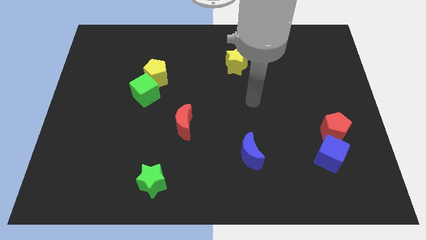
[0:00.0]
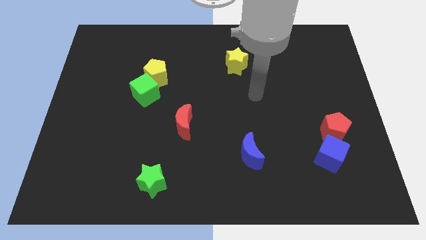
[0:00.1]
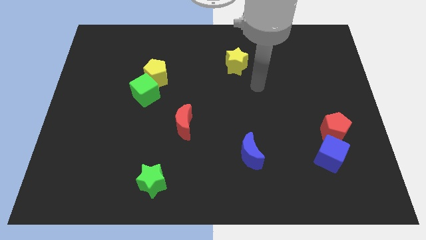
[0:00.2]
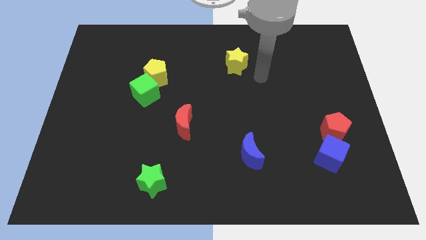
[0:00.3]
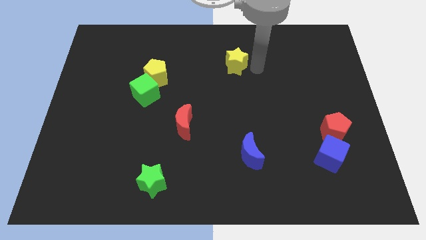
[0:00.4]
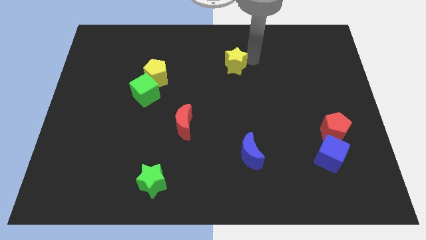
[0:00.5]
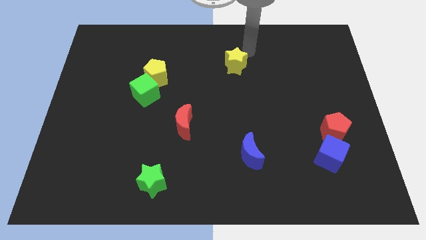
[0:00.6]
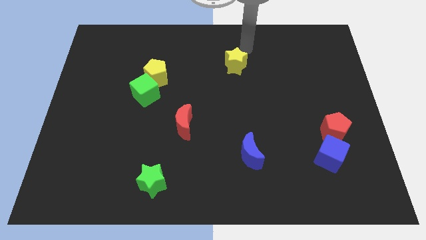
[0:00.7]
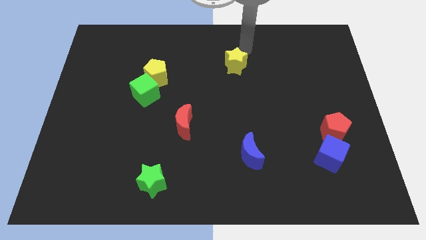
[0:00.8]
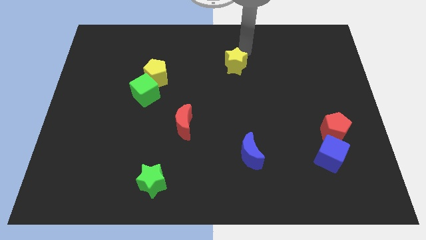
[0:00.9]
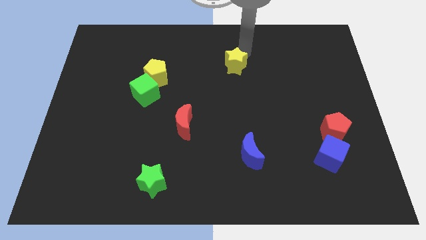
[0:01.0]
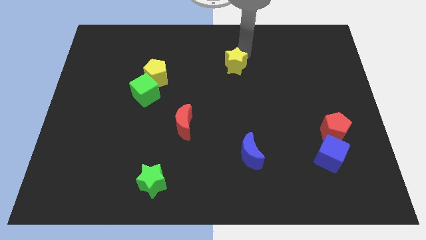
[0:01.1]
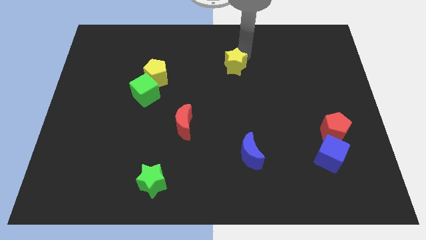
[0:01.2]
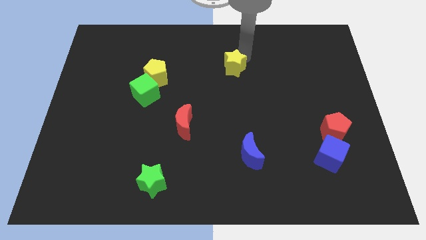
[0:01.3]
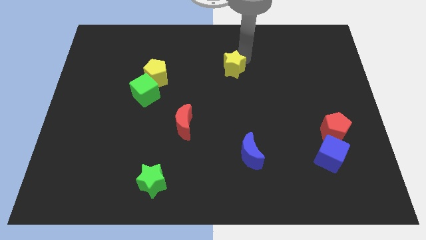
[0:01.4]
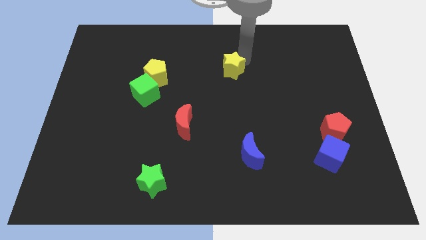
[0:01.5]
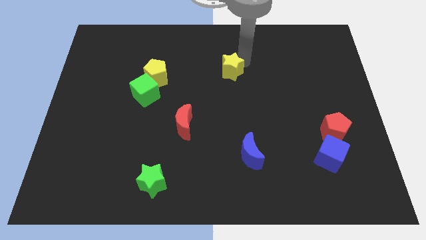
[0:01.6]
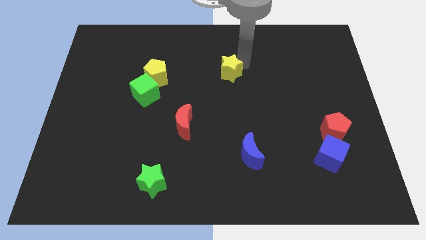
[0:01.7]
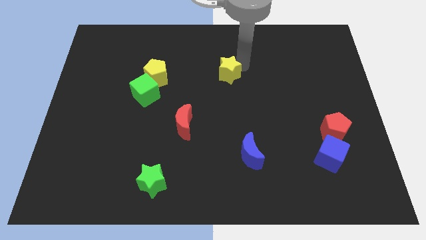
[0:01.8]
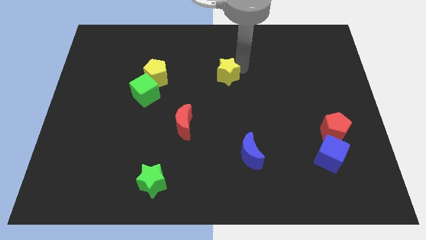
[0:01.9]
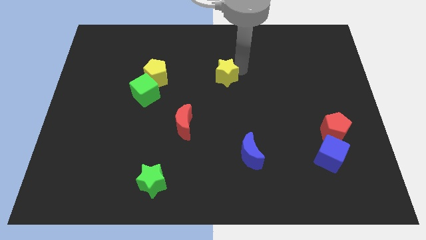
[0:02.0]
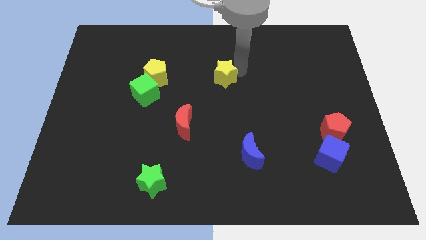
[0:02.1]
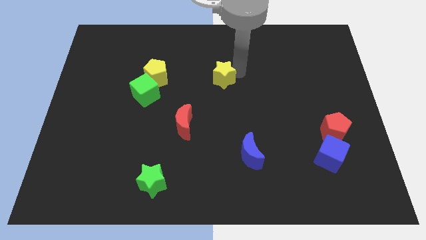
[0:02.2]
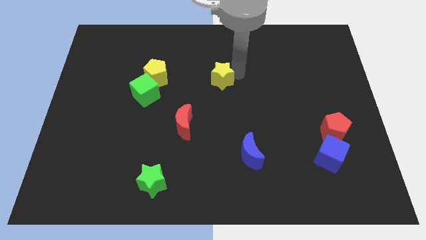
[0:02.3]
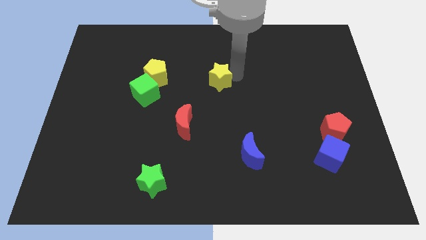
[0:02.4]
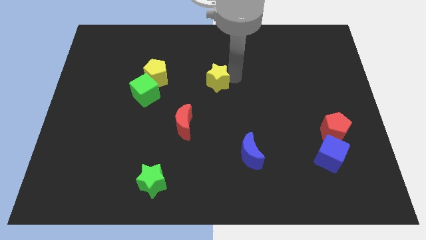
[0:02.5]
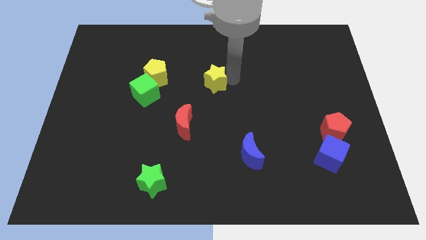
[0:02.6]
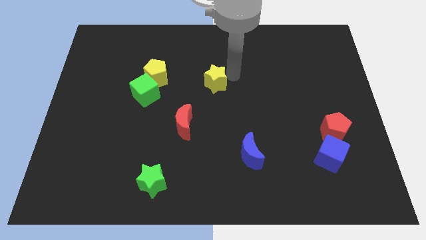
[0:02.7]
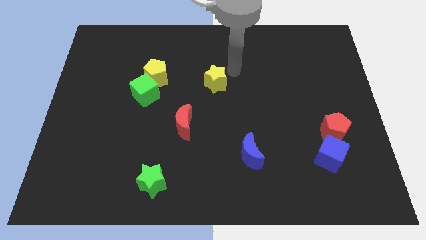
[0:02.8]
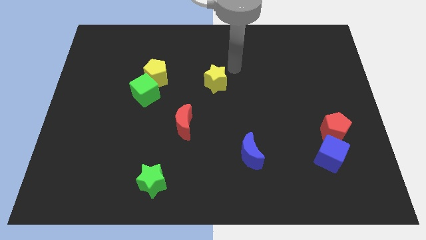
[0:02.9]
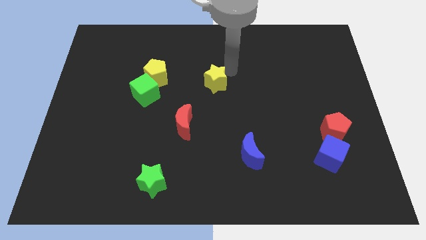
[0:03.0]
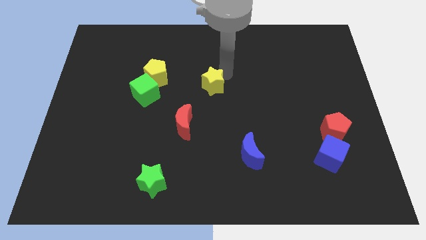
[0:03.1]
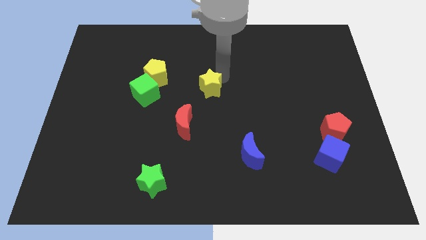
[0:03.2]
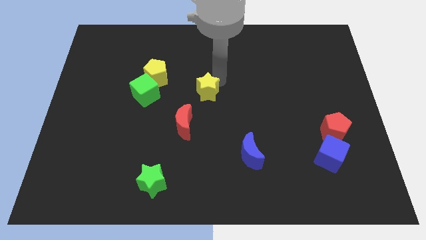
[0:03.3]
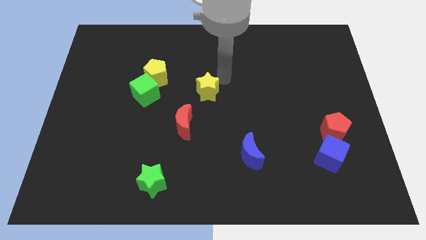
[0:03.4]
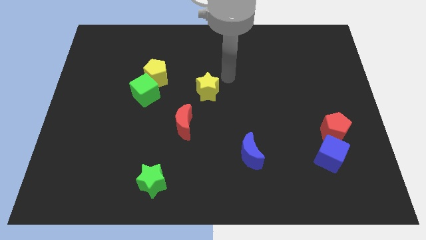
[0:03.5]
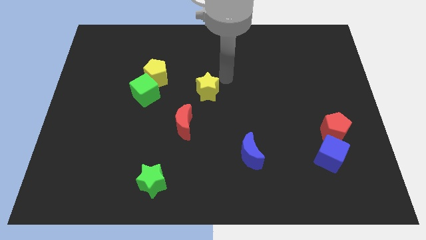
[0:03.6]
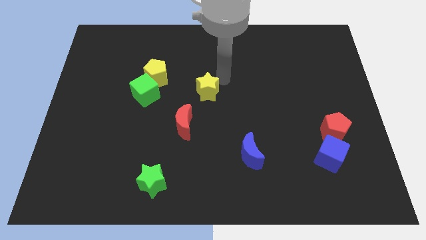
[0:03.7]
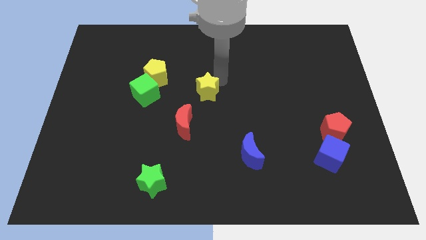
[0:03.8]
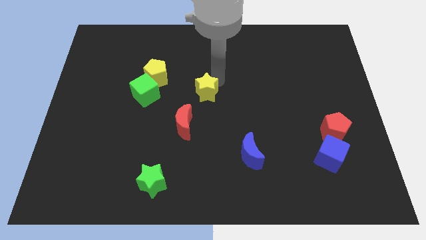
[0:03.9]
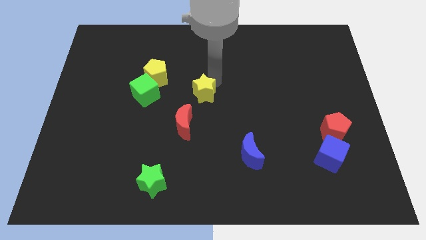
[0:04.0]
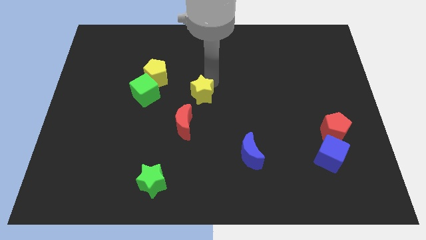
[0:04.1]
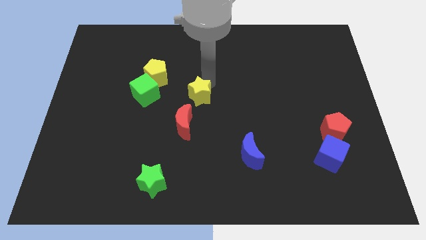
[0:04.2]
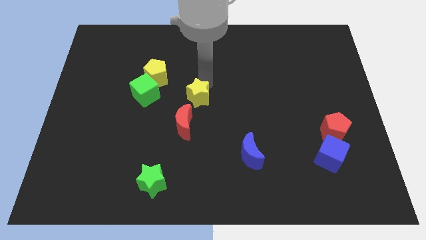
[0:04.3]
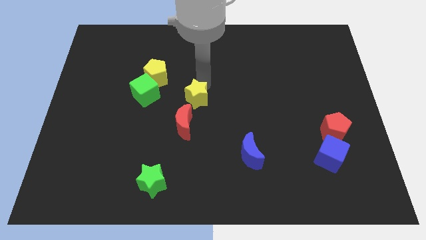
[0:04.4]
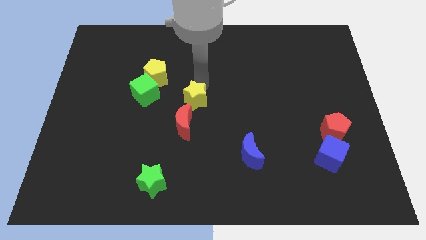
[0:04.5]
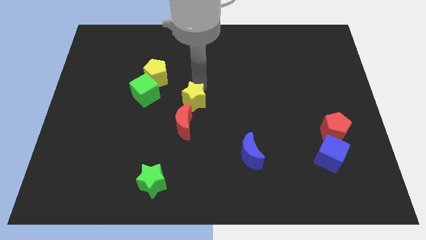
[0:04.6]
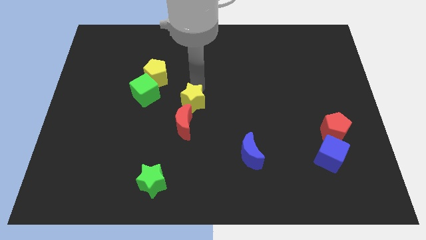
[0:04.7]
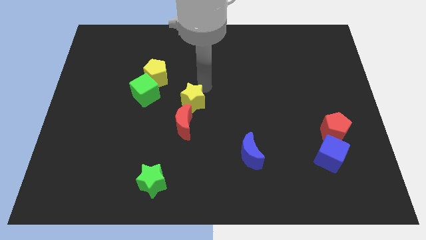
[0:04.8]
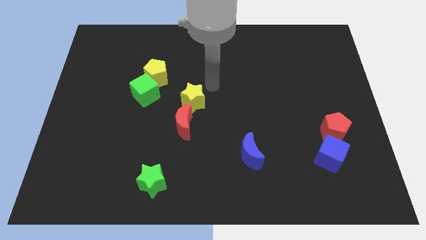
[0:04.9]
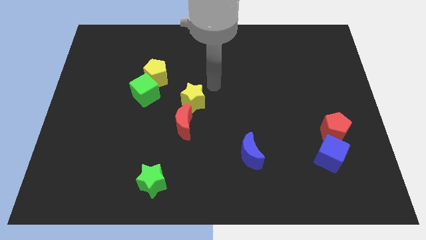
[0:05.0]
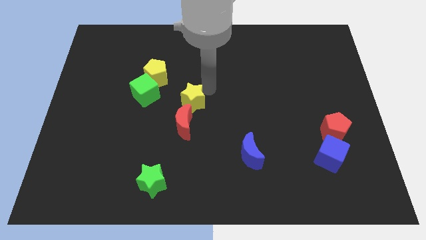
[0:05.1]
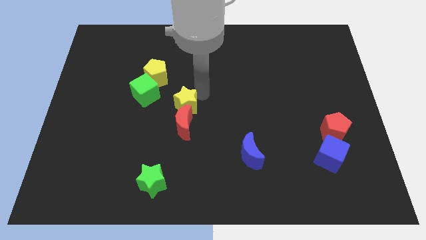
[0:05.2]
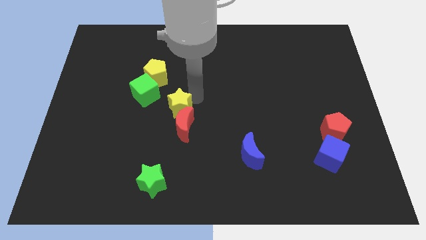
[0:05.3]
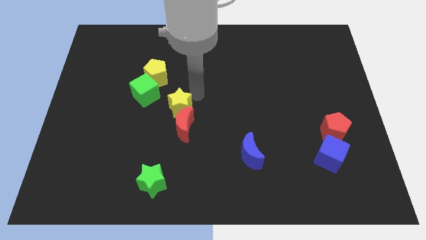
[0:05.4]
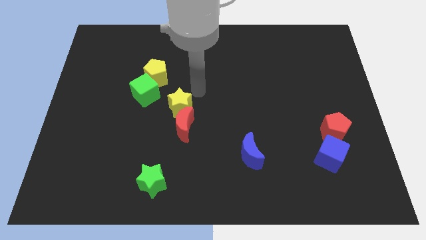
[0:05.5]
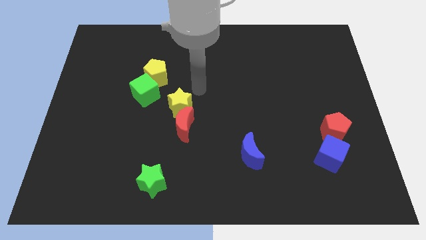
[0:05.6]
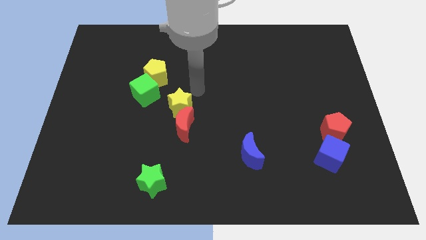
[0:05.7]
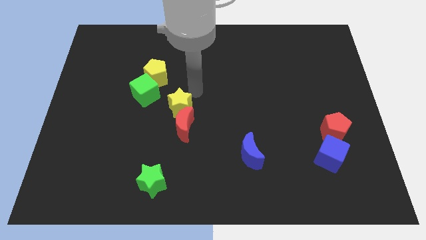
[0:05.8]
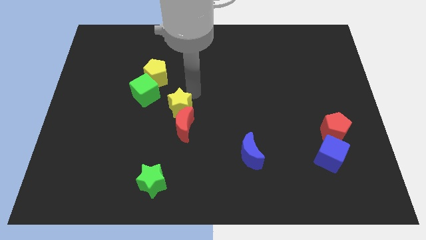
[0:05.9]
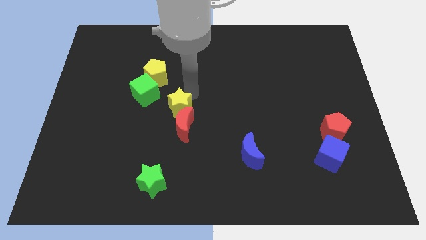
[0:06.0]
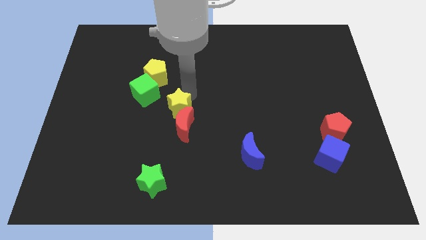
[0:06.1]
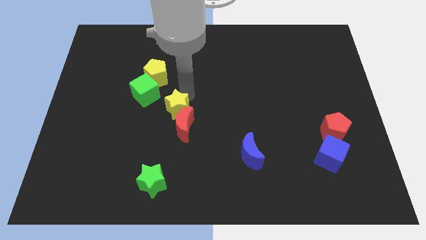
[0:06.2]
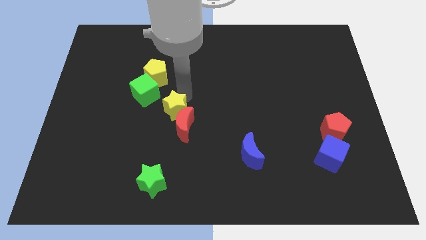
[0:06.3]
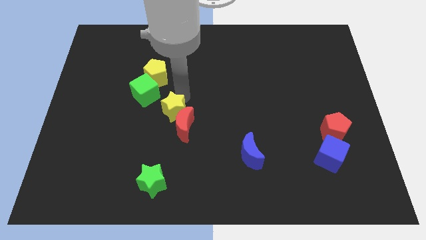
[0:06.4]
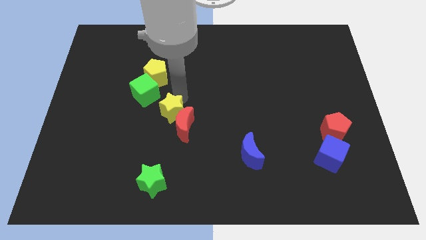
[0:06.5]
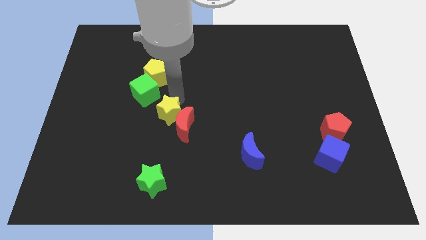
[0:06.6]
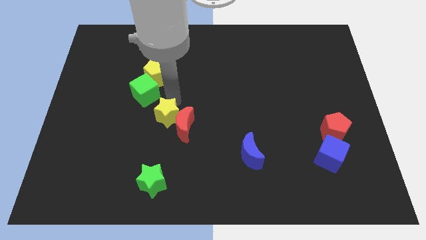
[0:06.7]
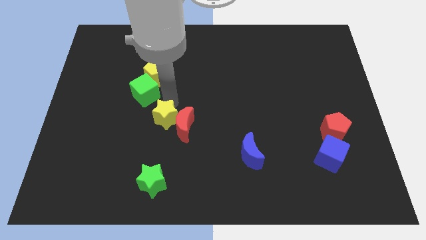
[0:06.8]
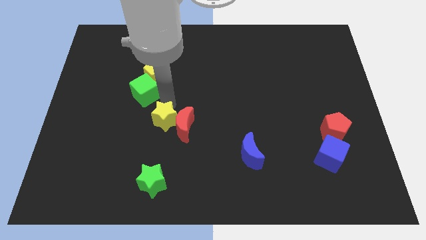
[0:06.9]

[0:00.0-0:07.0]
push the yellow star to the top side of the green star

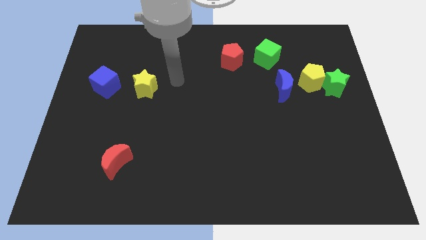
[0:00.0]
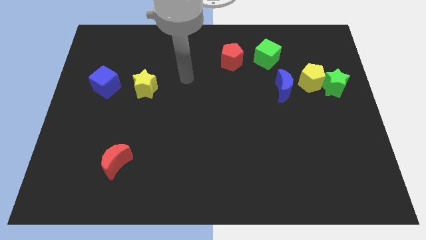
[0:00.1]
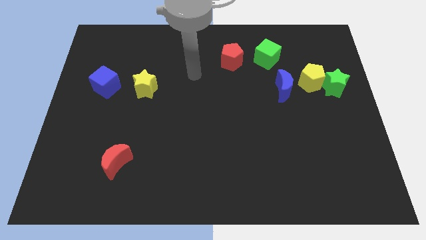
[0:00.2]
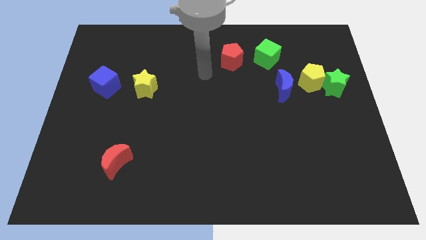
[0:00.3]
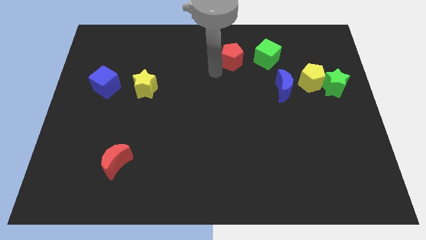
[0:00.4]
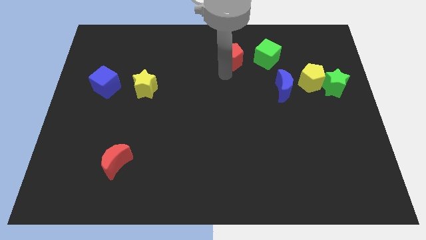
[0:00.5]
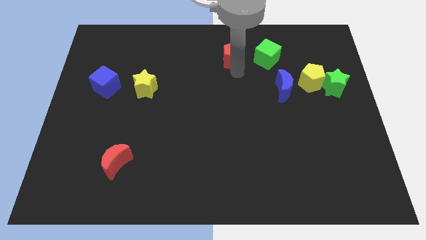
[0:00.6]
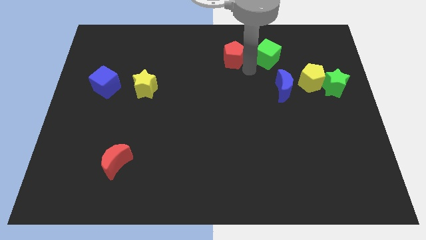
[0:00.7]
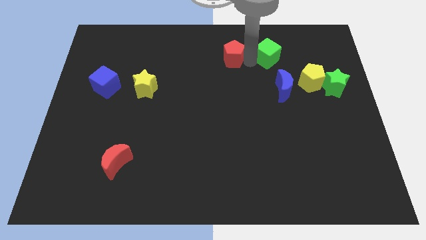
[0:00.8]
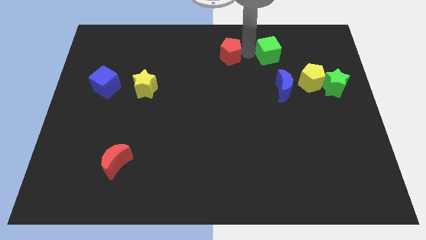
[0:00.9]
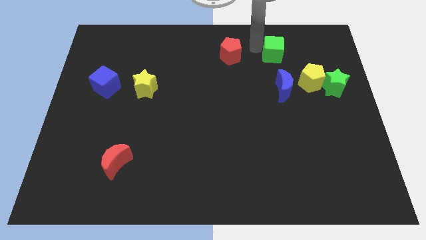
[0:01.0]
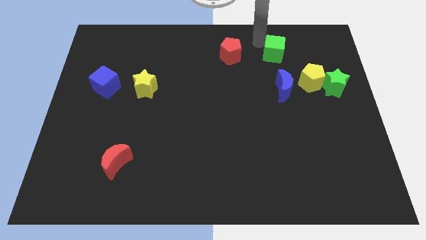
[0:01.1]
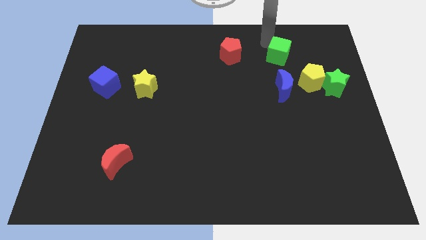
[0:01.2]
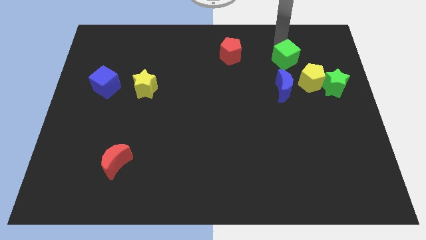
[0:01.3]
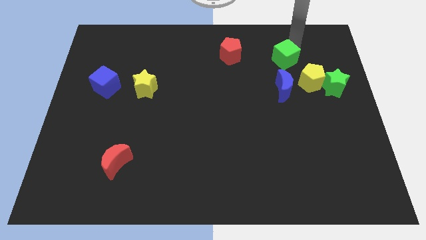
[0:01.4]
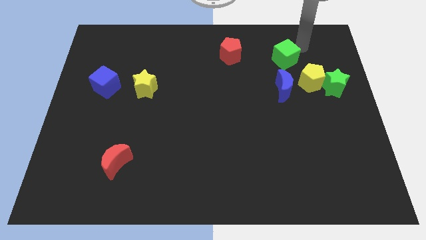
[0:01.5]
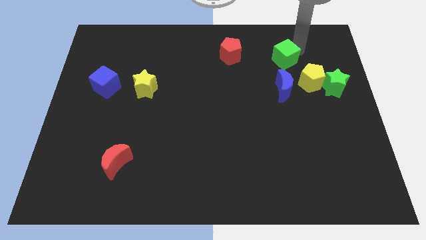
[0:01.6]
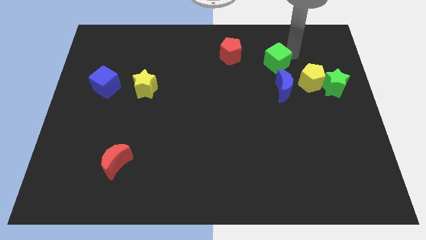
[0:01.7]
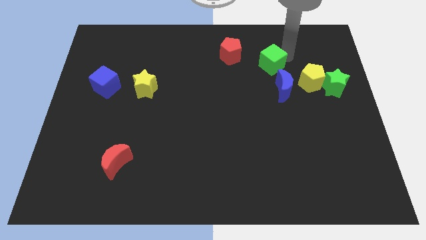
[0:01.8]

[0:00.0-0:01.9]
slide the green cube to the top left of the blue moon
